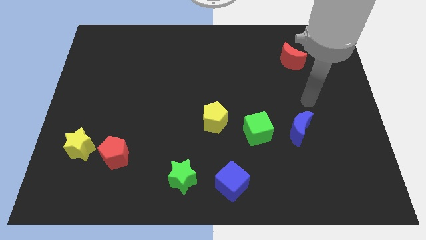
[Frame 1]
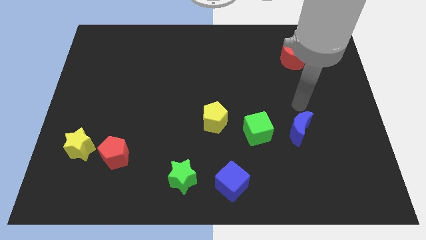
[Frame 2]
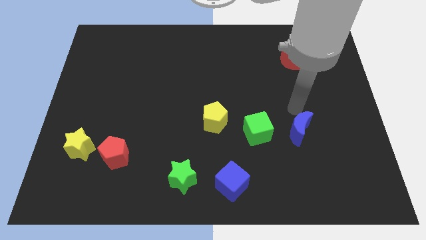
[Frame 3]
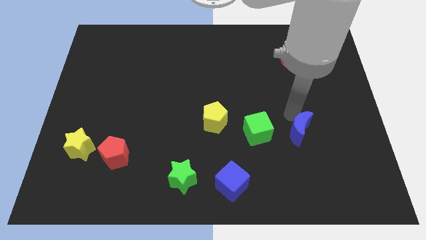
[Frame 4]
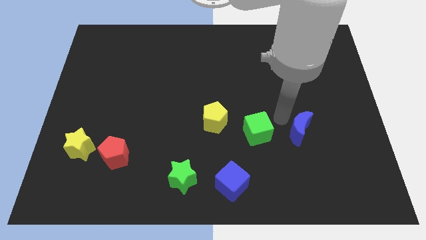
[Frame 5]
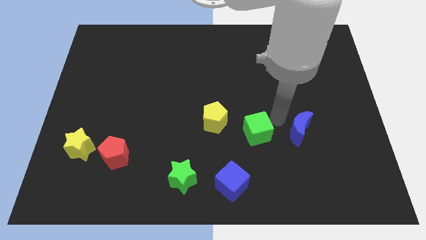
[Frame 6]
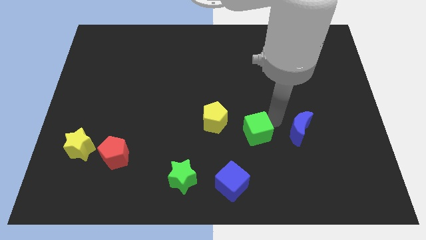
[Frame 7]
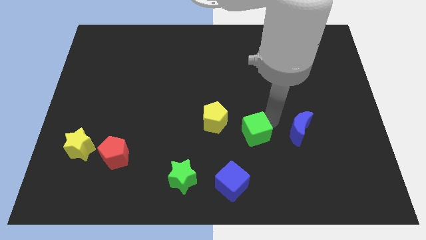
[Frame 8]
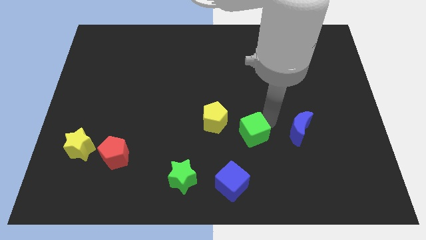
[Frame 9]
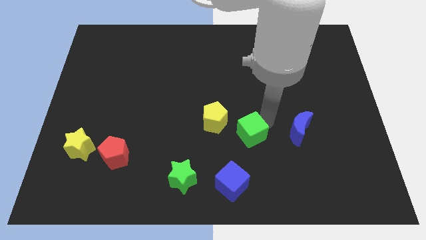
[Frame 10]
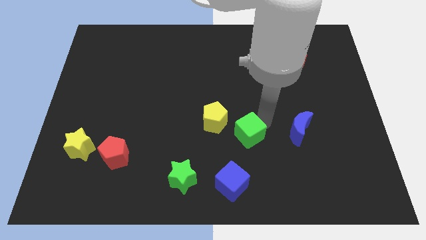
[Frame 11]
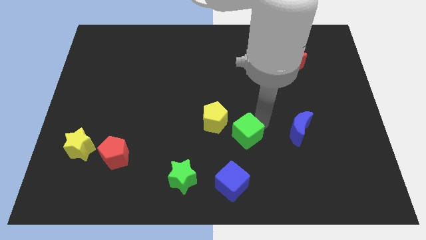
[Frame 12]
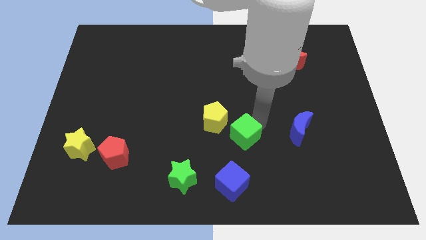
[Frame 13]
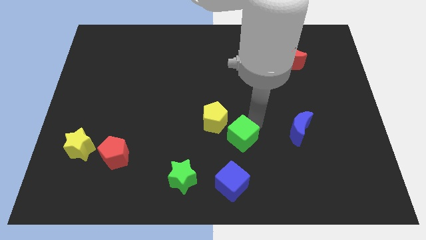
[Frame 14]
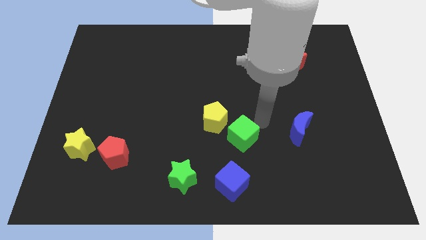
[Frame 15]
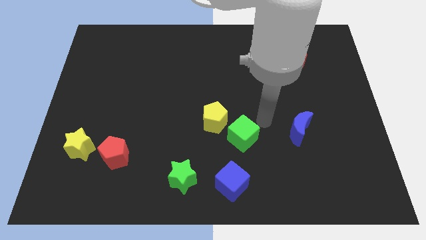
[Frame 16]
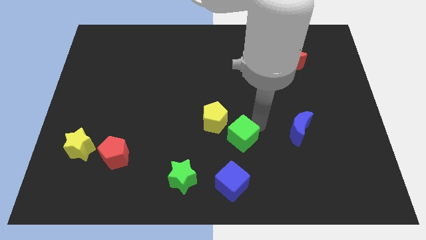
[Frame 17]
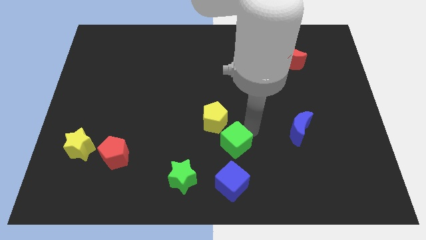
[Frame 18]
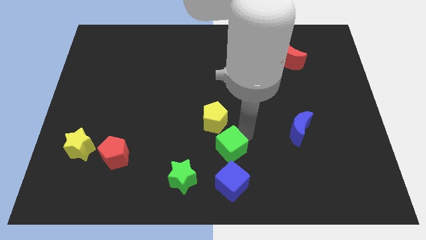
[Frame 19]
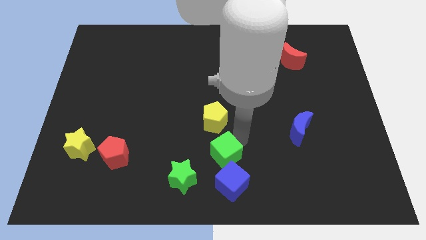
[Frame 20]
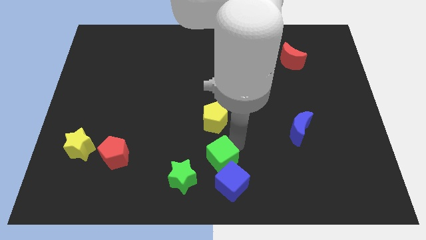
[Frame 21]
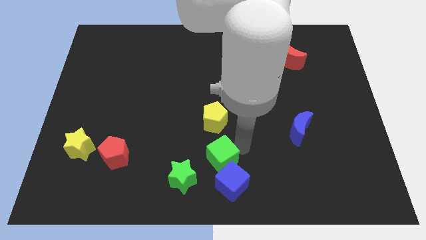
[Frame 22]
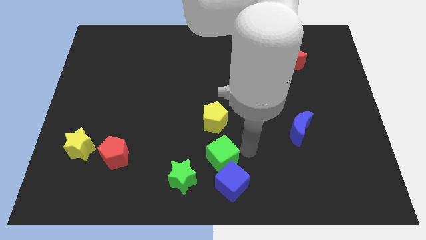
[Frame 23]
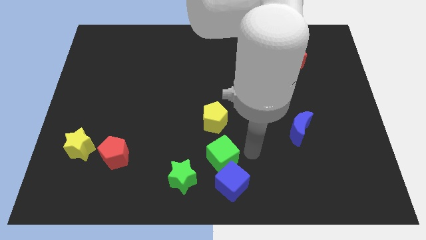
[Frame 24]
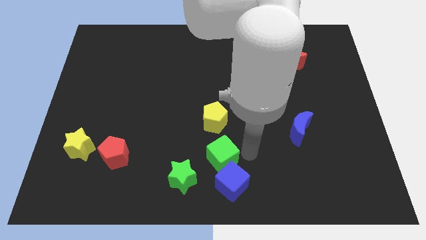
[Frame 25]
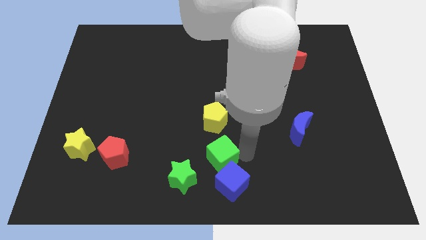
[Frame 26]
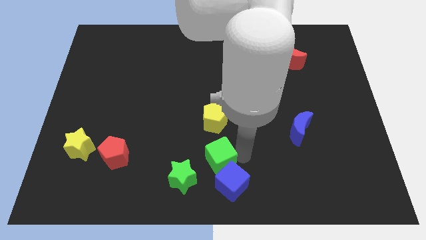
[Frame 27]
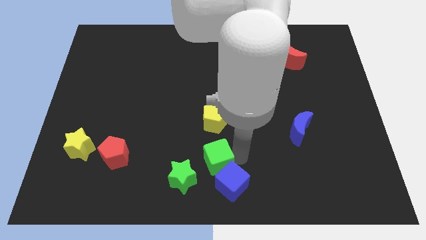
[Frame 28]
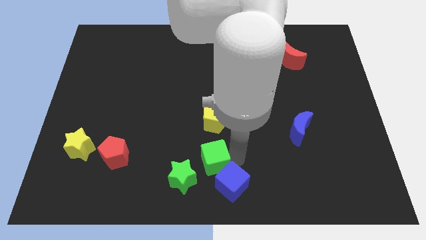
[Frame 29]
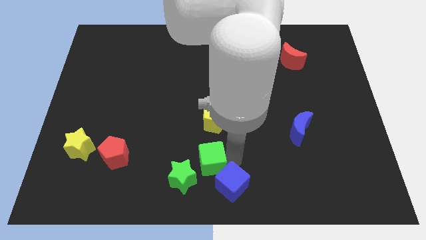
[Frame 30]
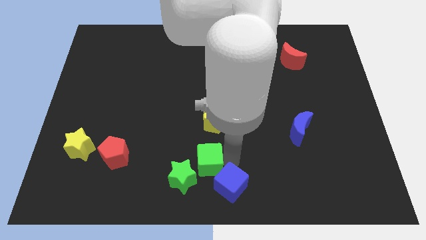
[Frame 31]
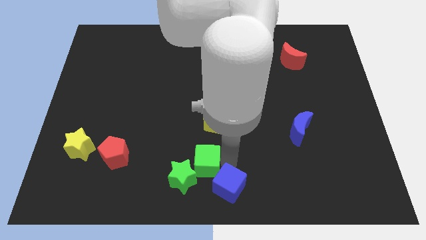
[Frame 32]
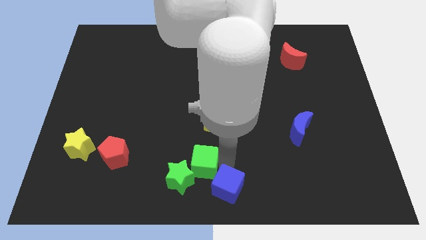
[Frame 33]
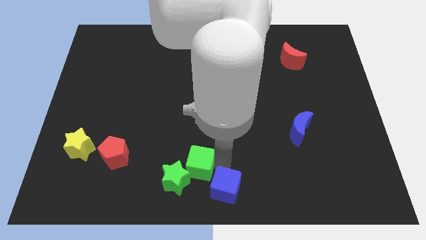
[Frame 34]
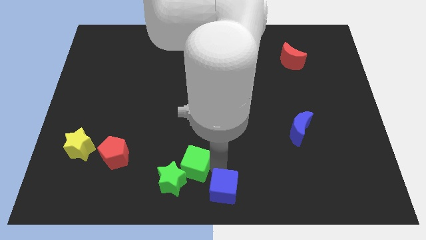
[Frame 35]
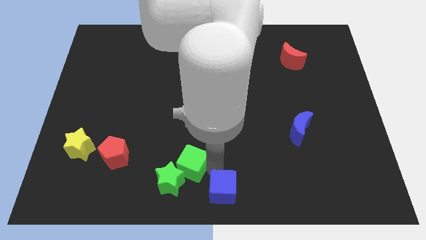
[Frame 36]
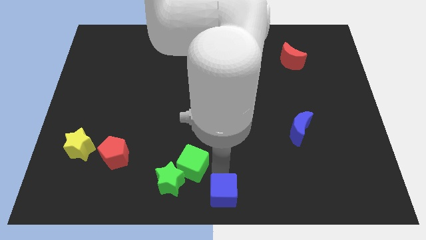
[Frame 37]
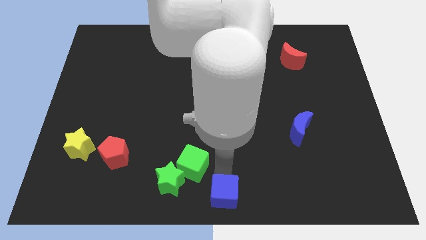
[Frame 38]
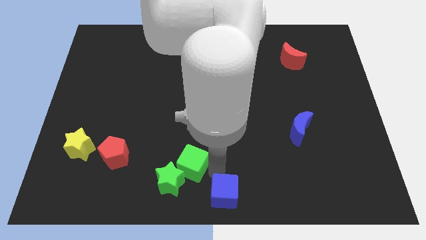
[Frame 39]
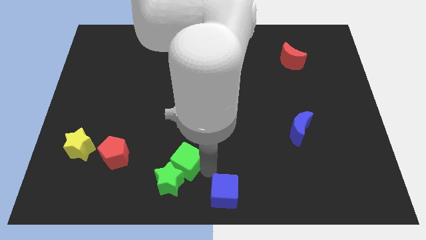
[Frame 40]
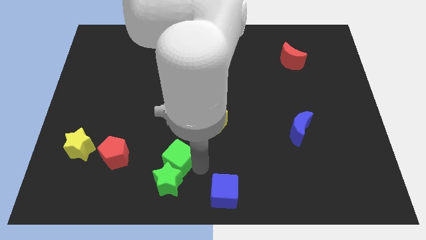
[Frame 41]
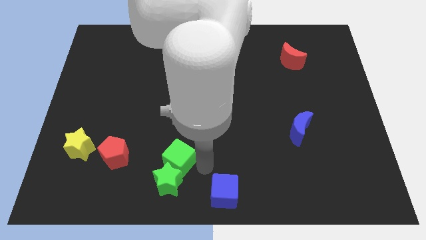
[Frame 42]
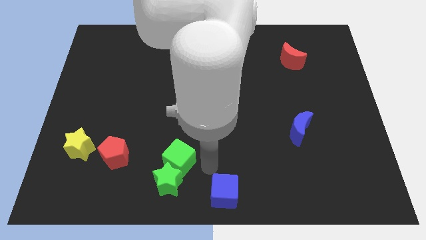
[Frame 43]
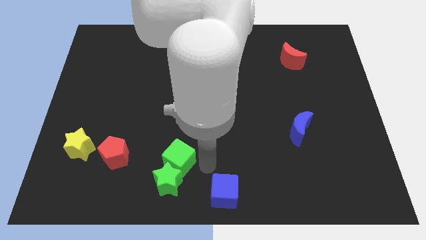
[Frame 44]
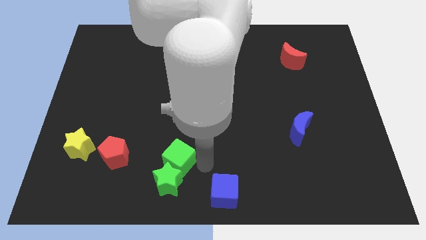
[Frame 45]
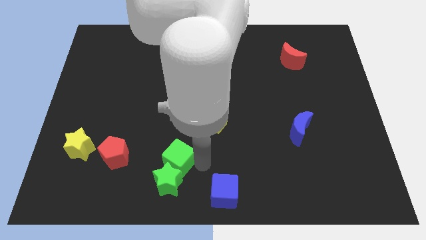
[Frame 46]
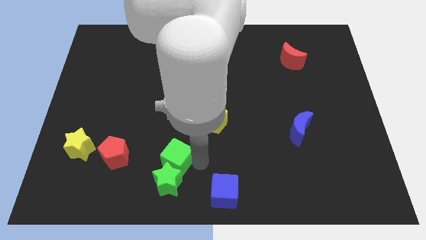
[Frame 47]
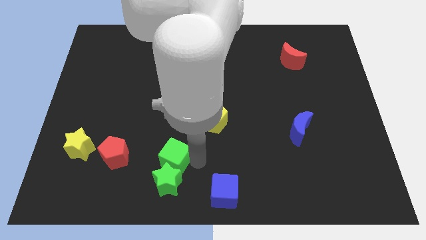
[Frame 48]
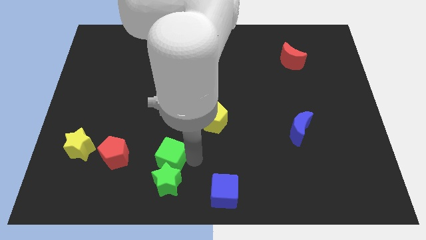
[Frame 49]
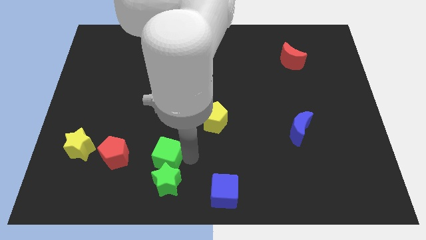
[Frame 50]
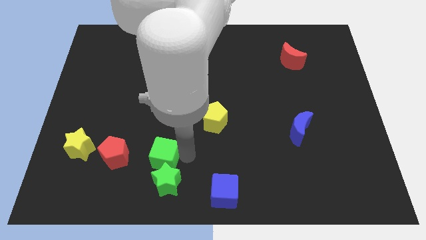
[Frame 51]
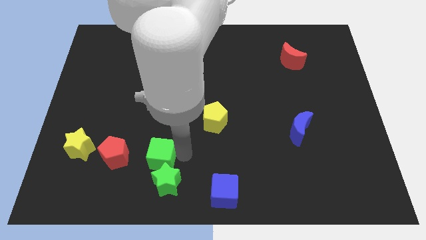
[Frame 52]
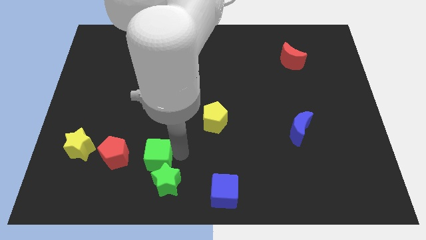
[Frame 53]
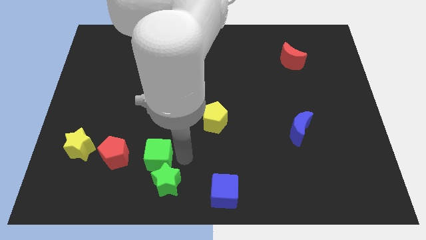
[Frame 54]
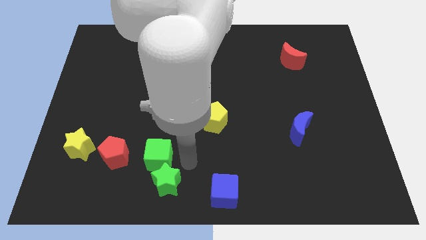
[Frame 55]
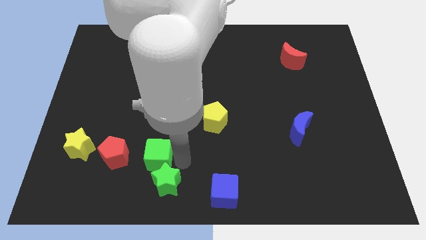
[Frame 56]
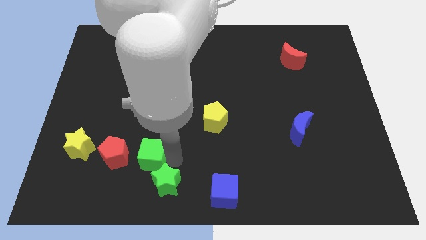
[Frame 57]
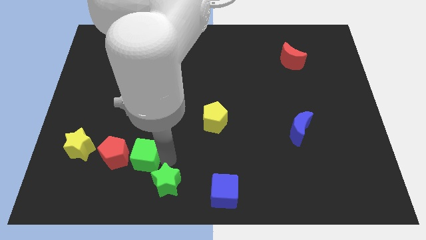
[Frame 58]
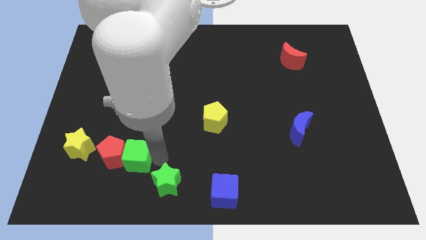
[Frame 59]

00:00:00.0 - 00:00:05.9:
put the green cube close to the red pentagon

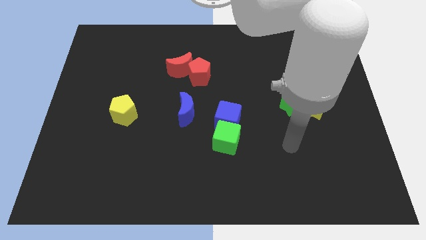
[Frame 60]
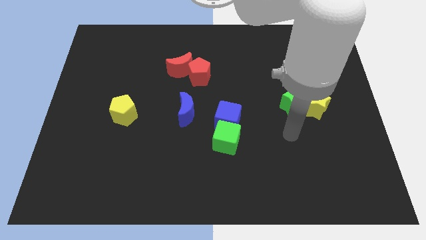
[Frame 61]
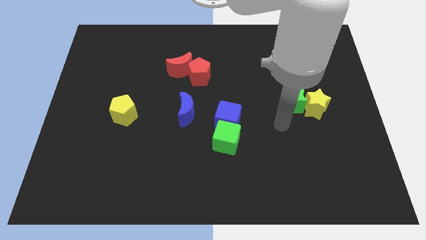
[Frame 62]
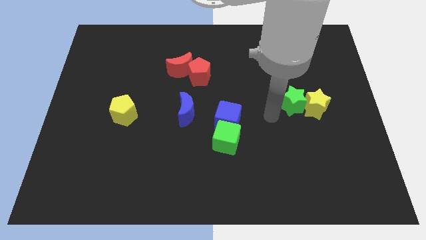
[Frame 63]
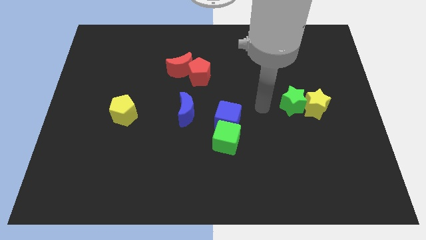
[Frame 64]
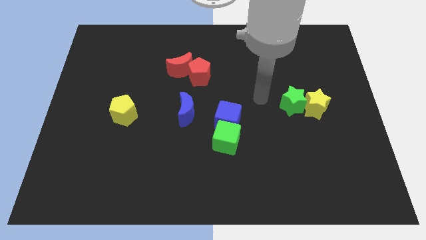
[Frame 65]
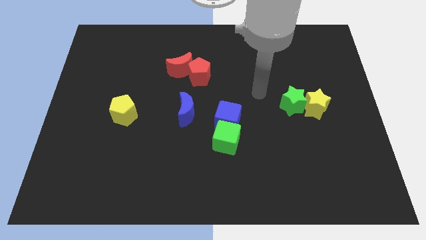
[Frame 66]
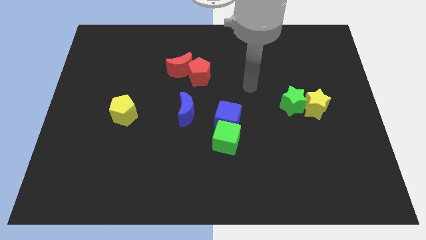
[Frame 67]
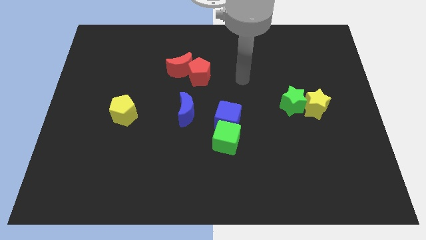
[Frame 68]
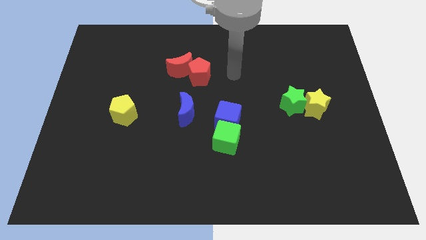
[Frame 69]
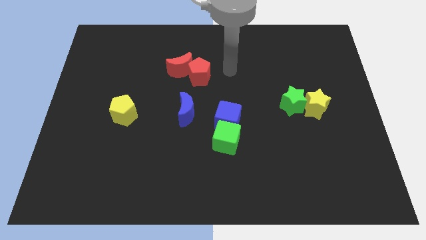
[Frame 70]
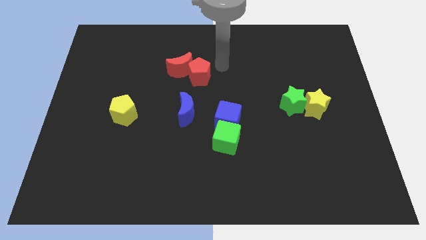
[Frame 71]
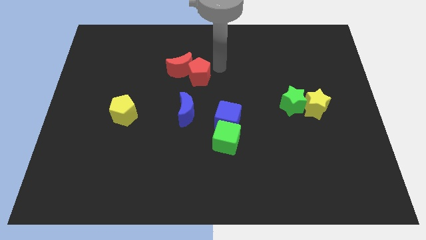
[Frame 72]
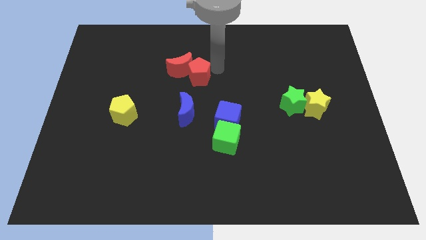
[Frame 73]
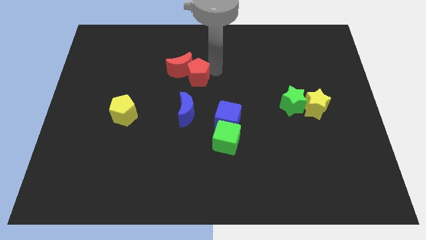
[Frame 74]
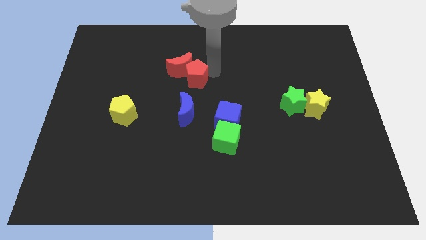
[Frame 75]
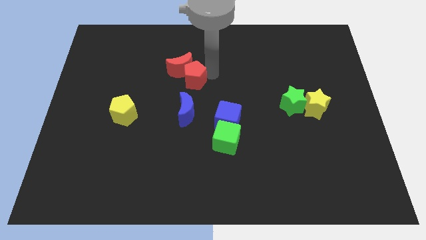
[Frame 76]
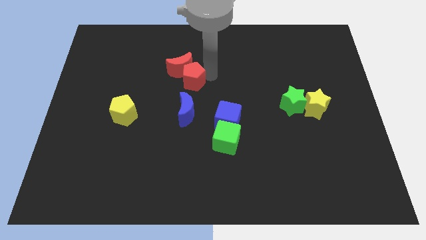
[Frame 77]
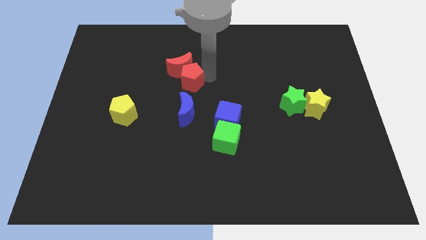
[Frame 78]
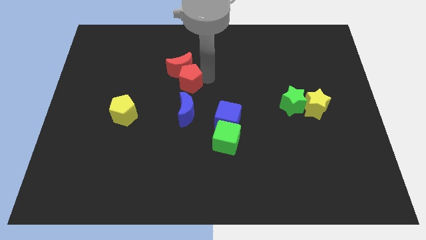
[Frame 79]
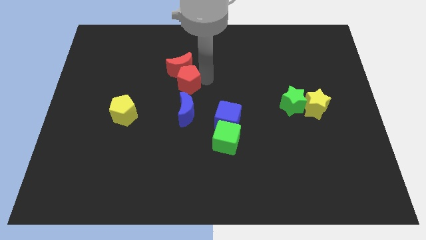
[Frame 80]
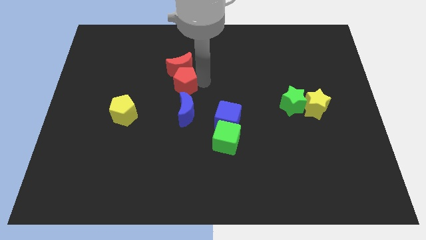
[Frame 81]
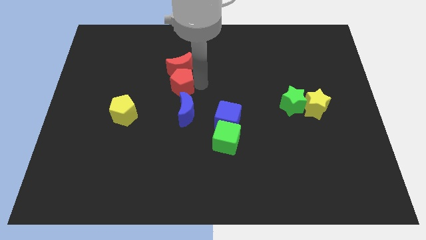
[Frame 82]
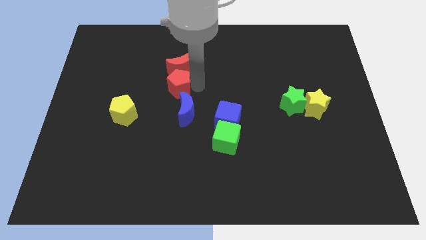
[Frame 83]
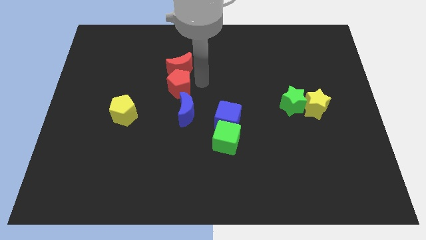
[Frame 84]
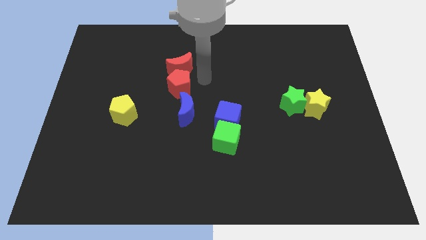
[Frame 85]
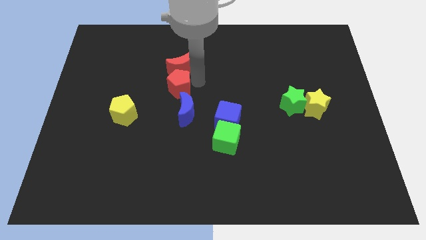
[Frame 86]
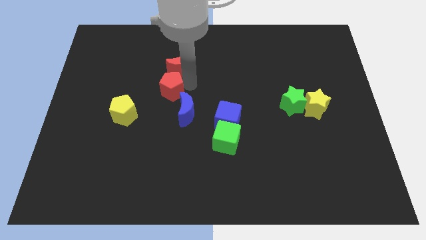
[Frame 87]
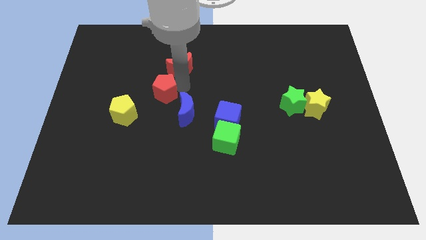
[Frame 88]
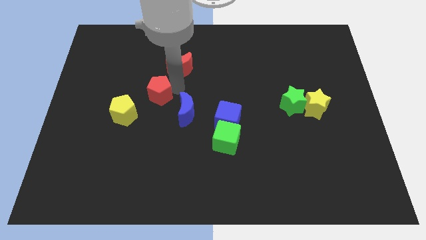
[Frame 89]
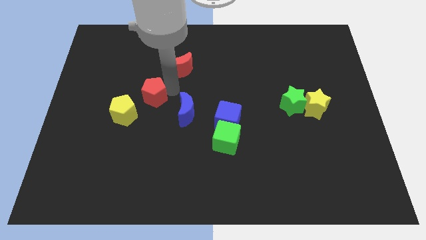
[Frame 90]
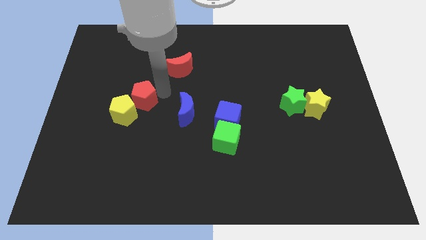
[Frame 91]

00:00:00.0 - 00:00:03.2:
put the red pentagon close to the yellow pentagon
